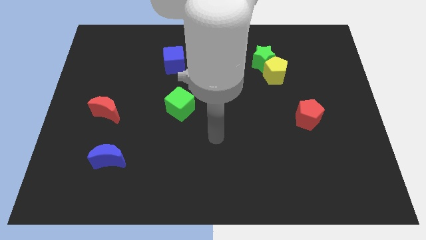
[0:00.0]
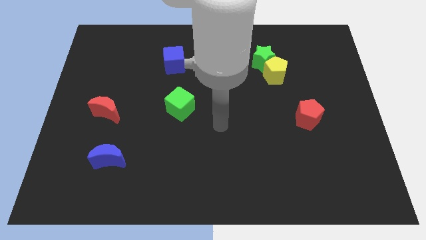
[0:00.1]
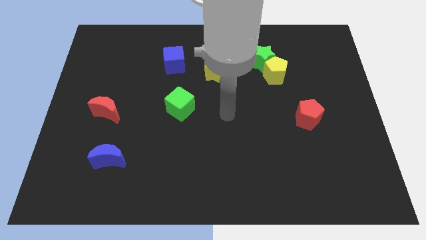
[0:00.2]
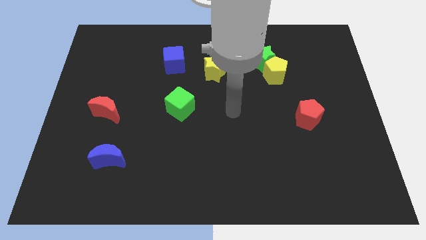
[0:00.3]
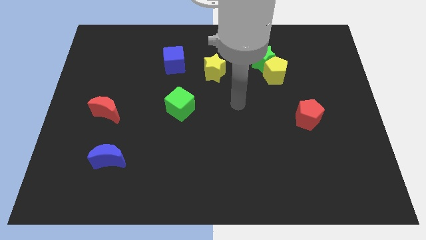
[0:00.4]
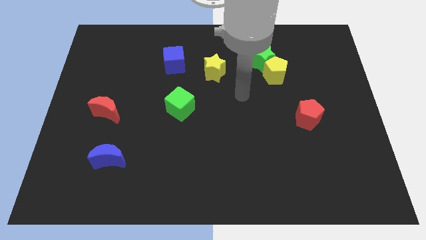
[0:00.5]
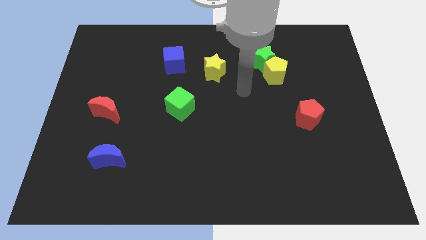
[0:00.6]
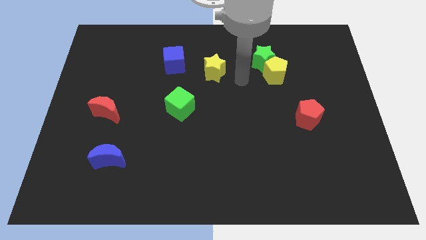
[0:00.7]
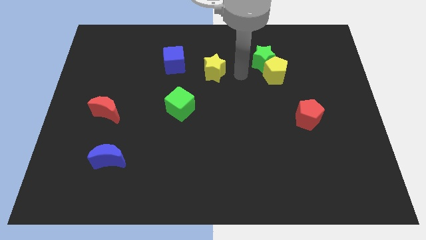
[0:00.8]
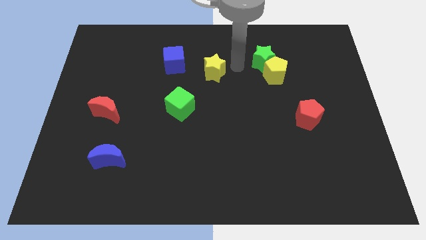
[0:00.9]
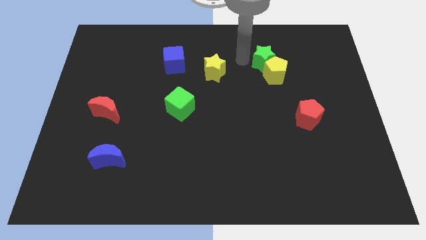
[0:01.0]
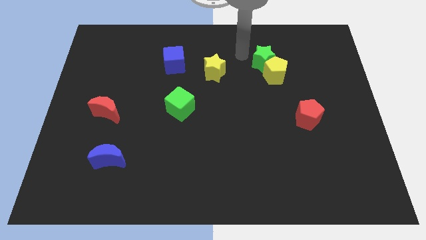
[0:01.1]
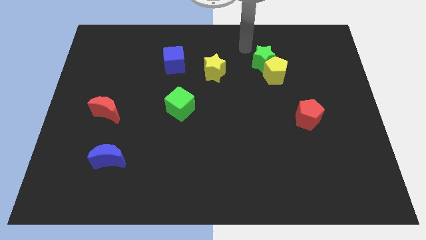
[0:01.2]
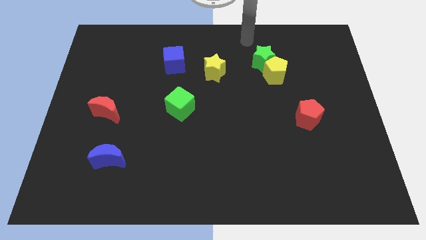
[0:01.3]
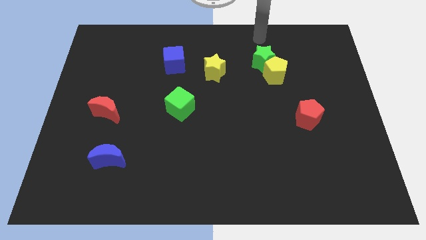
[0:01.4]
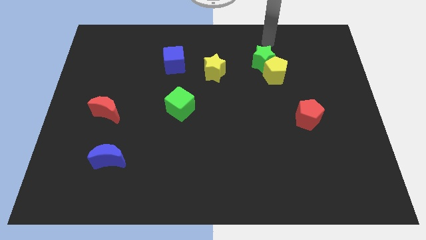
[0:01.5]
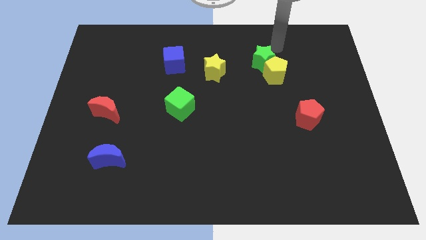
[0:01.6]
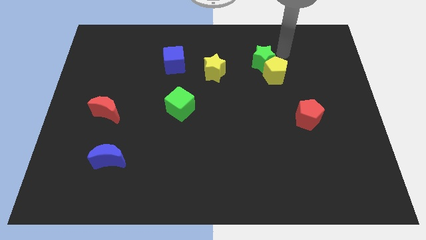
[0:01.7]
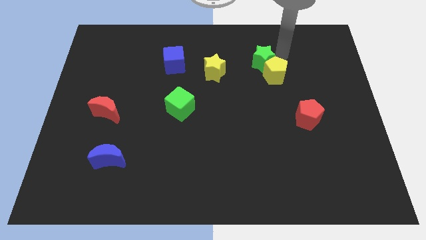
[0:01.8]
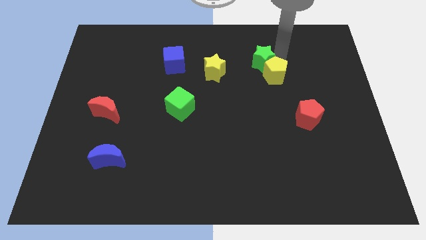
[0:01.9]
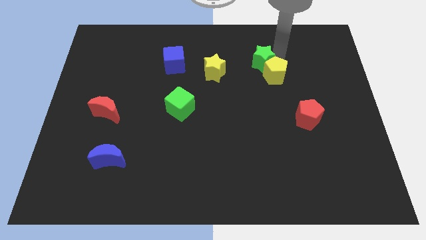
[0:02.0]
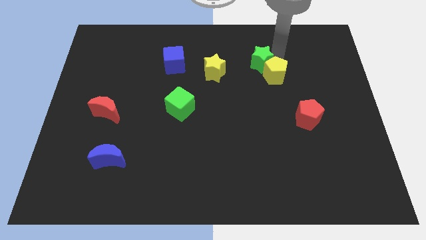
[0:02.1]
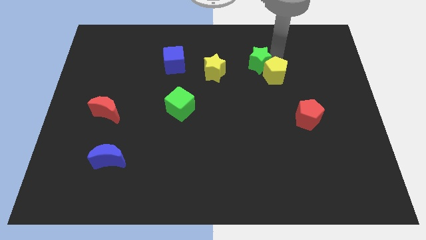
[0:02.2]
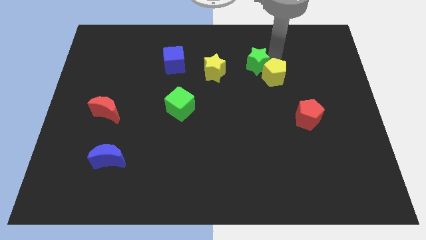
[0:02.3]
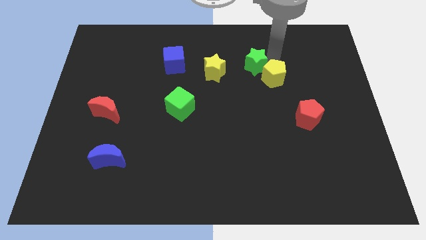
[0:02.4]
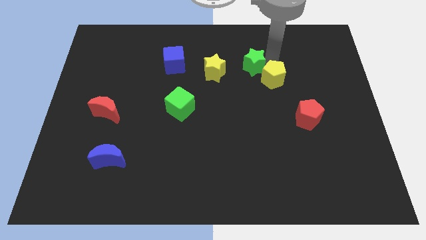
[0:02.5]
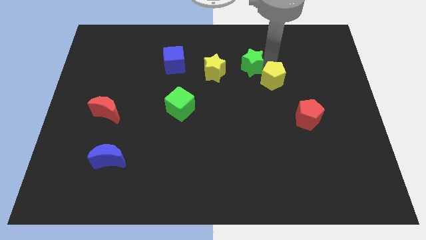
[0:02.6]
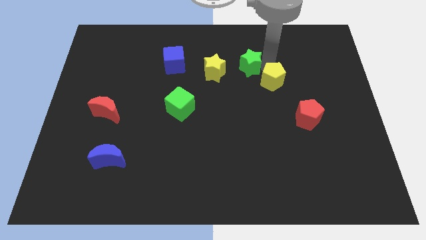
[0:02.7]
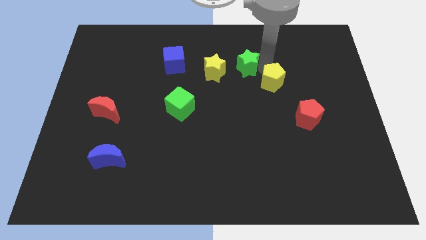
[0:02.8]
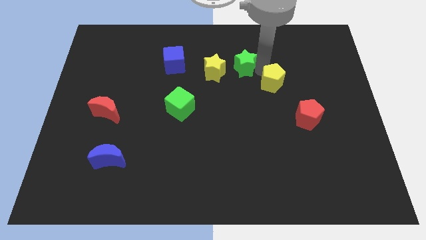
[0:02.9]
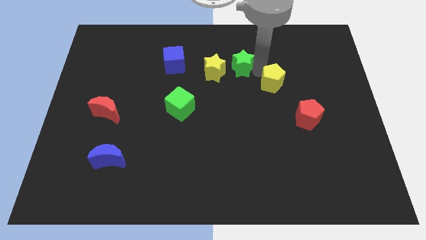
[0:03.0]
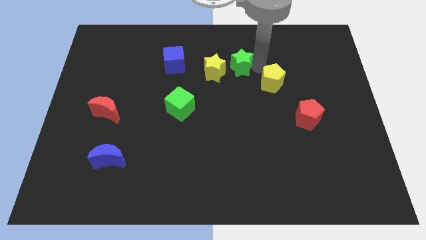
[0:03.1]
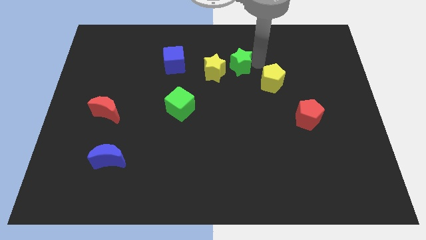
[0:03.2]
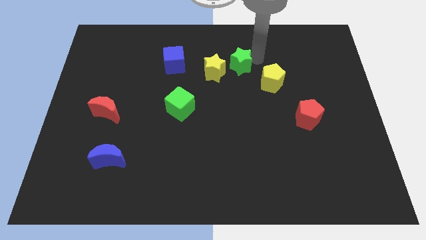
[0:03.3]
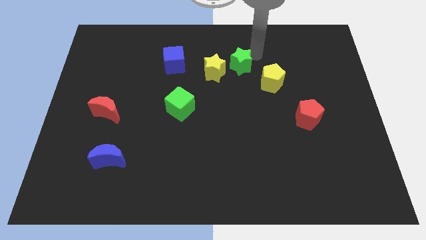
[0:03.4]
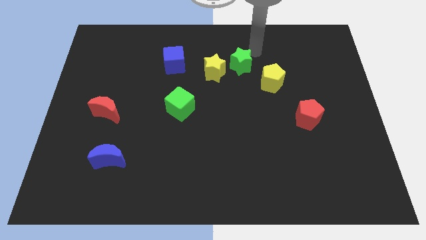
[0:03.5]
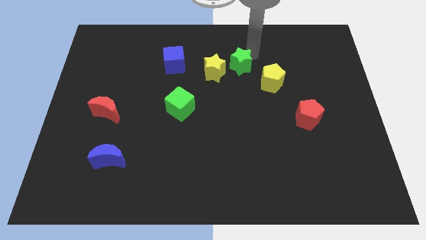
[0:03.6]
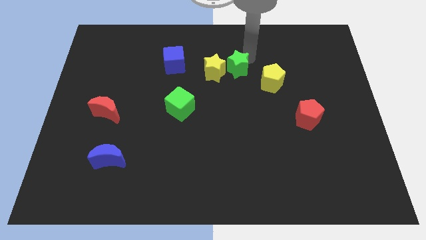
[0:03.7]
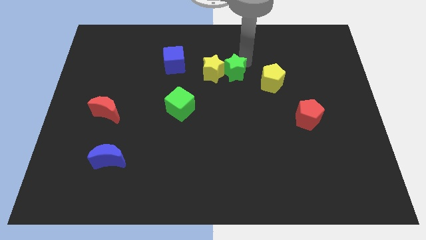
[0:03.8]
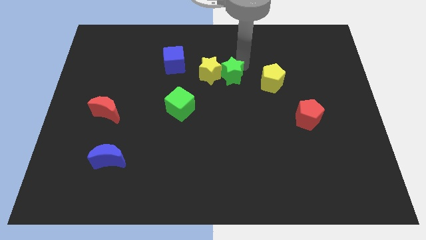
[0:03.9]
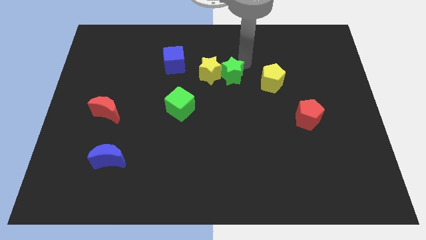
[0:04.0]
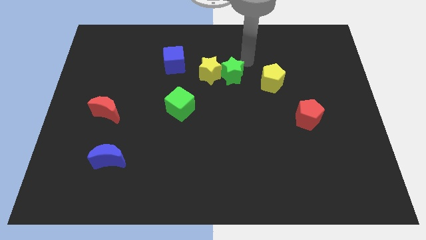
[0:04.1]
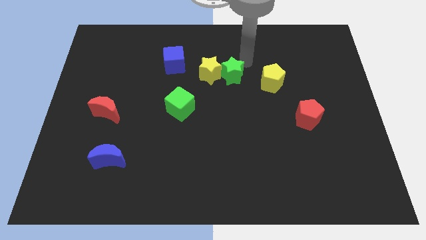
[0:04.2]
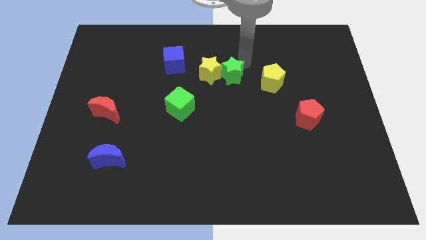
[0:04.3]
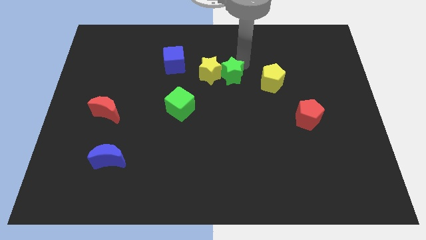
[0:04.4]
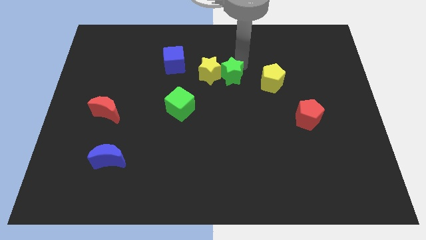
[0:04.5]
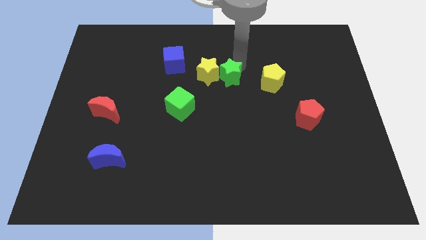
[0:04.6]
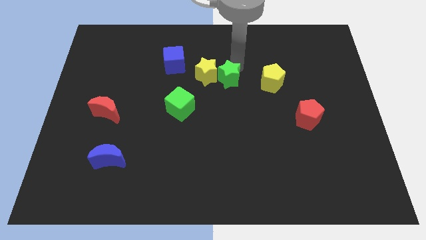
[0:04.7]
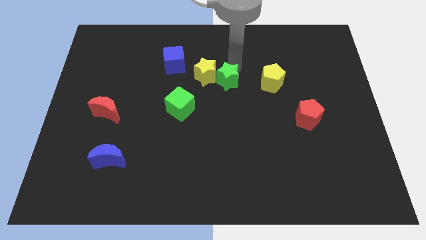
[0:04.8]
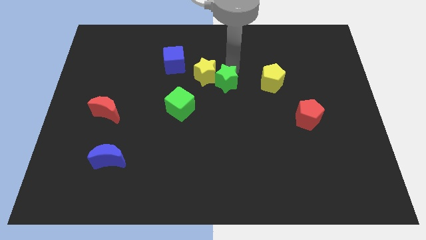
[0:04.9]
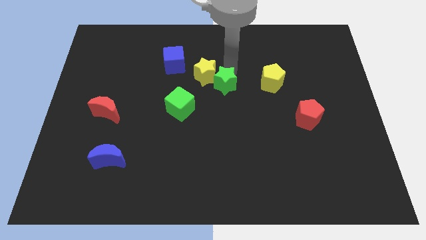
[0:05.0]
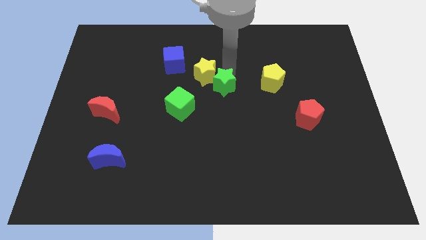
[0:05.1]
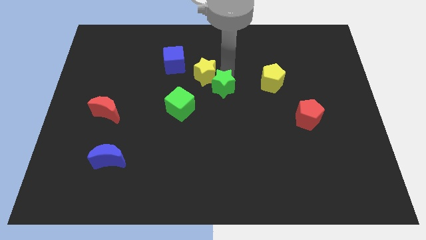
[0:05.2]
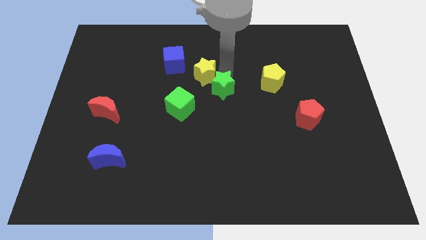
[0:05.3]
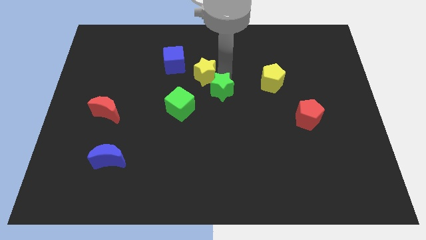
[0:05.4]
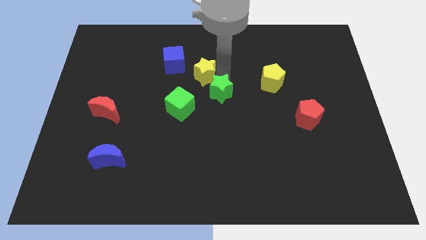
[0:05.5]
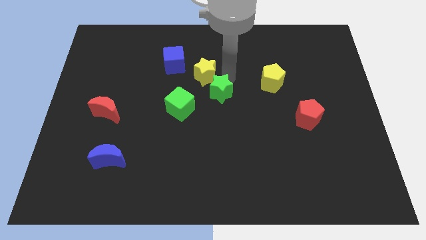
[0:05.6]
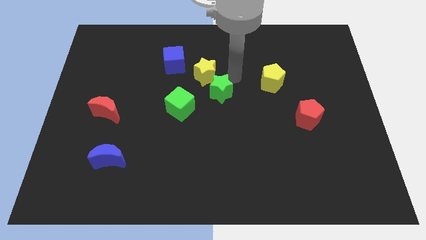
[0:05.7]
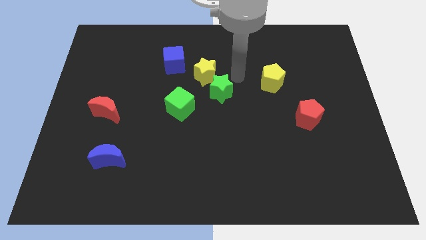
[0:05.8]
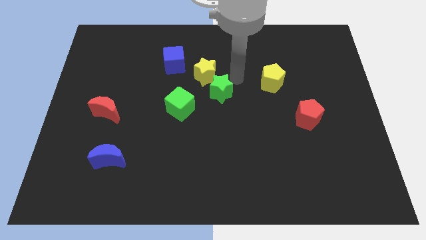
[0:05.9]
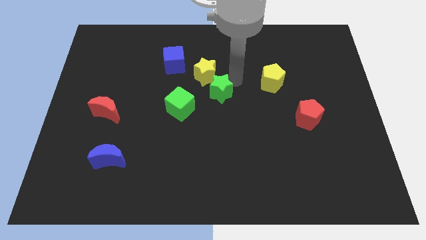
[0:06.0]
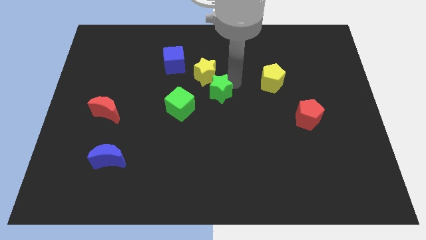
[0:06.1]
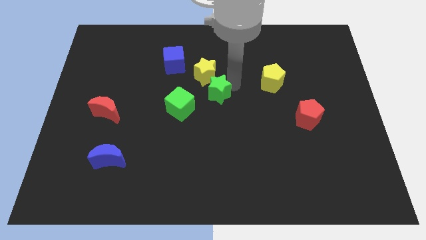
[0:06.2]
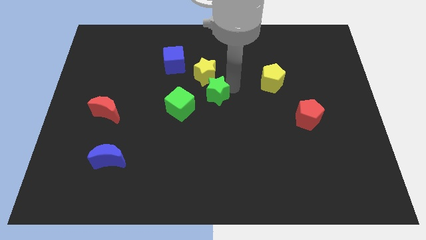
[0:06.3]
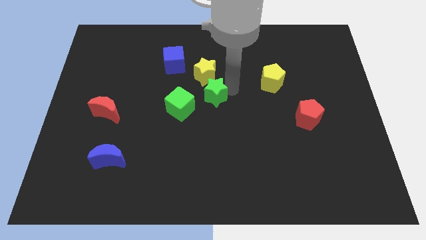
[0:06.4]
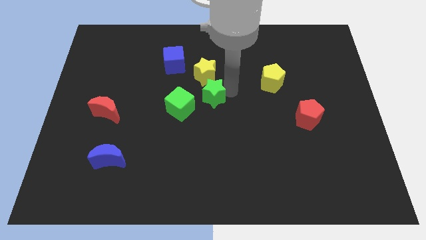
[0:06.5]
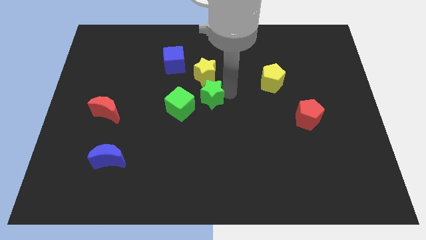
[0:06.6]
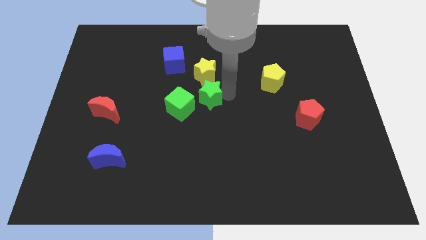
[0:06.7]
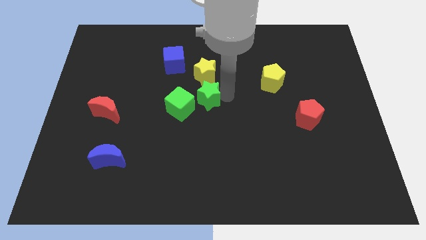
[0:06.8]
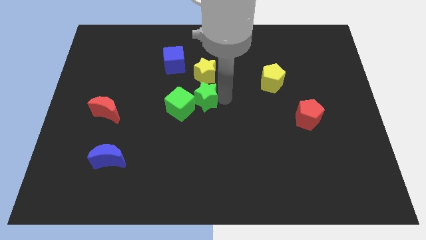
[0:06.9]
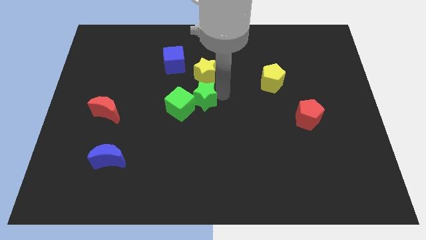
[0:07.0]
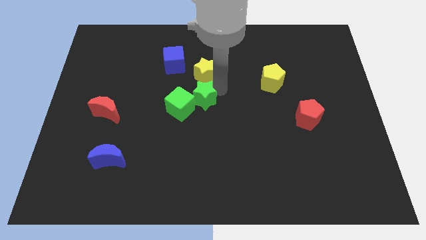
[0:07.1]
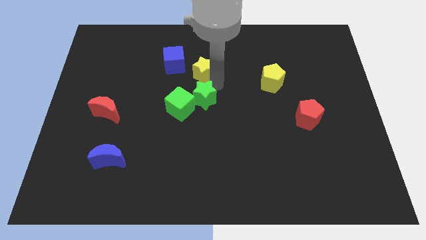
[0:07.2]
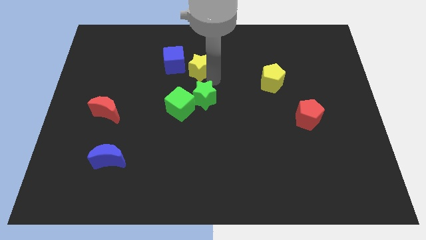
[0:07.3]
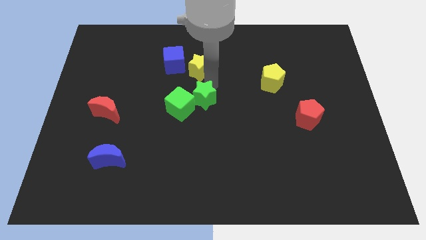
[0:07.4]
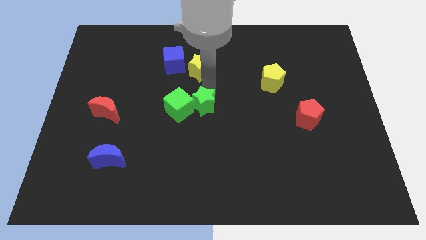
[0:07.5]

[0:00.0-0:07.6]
slide the green star diagonally down and to the left
